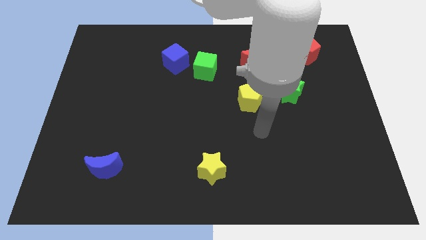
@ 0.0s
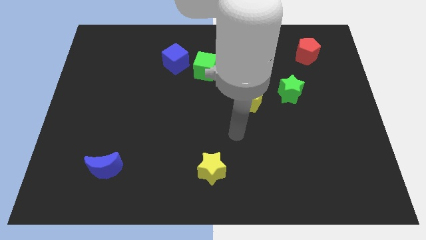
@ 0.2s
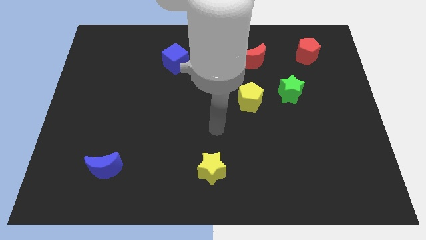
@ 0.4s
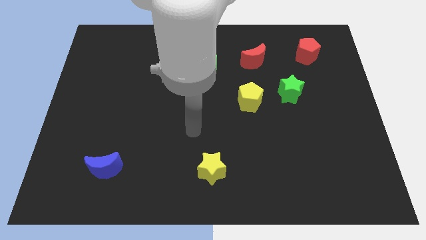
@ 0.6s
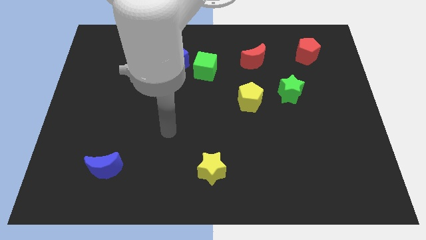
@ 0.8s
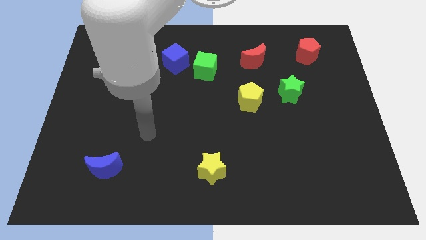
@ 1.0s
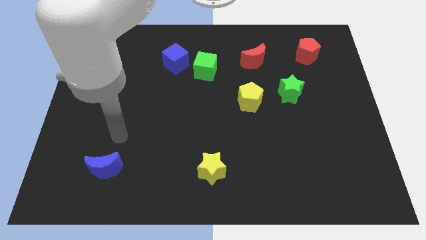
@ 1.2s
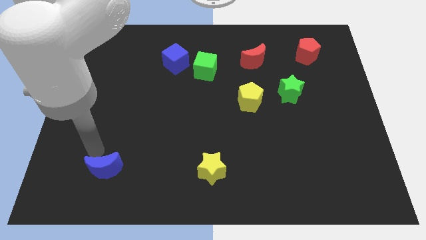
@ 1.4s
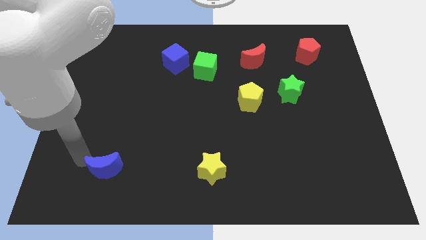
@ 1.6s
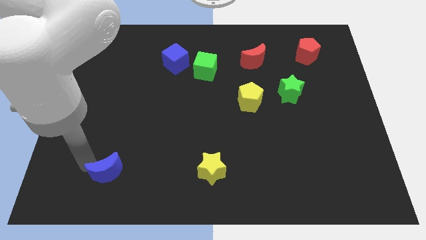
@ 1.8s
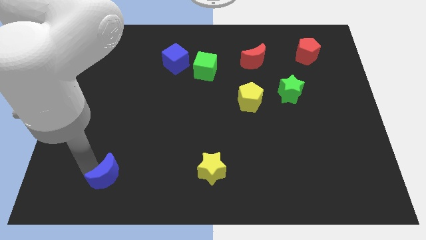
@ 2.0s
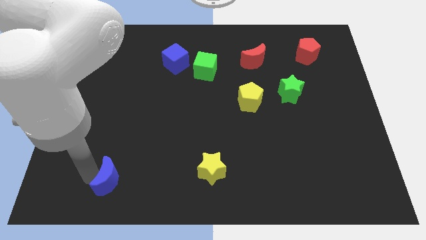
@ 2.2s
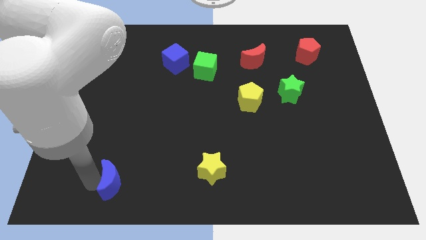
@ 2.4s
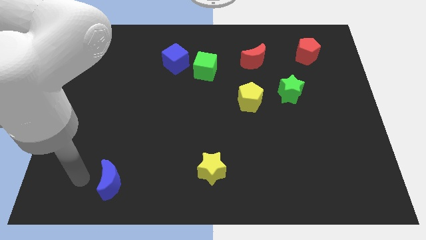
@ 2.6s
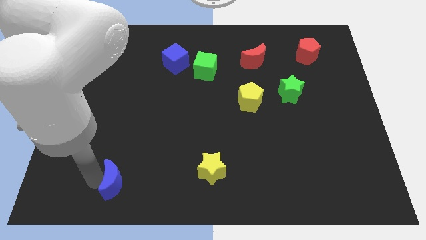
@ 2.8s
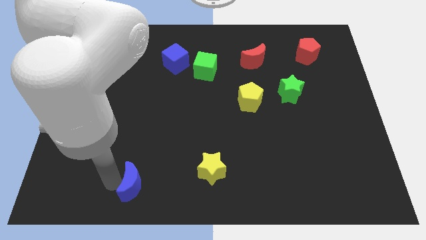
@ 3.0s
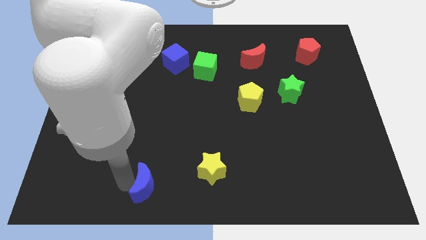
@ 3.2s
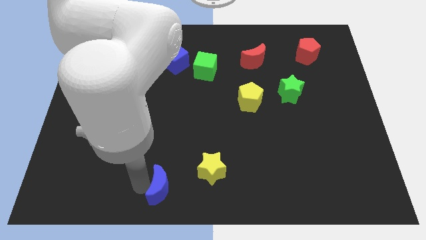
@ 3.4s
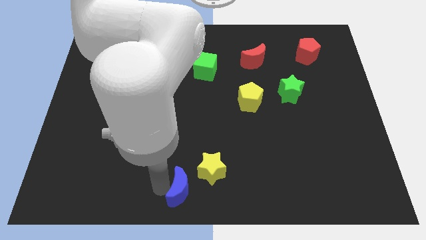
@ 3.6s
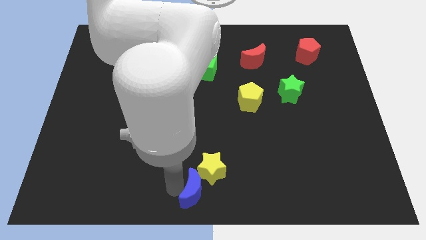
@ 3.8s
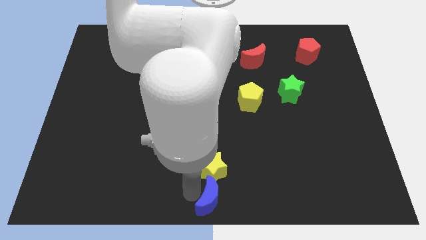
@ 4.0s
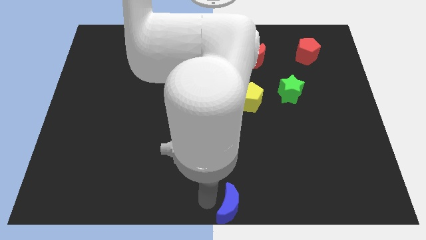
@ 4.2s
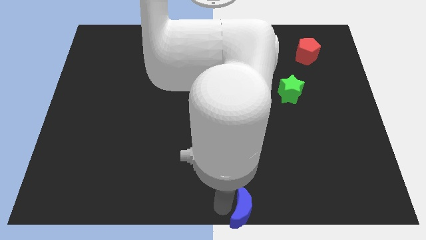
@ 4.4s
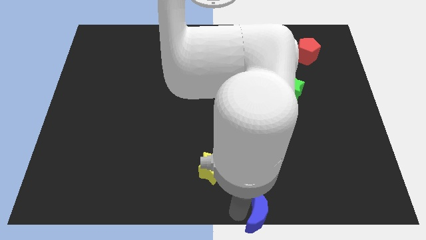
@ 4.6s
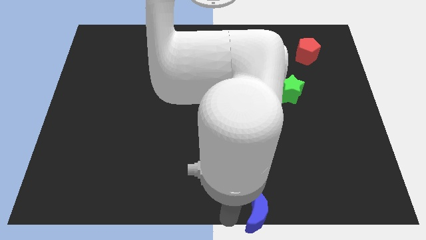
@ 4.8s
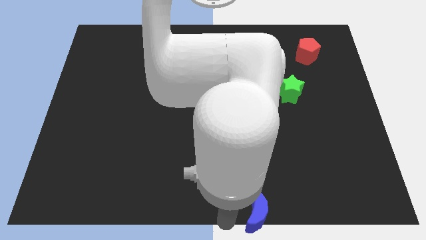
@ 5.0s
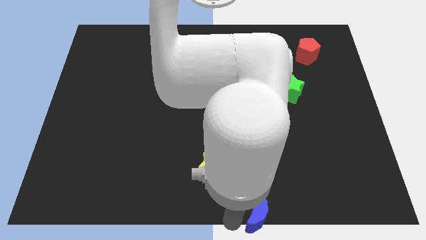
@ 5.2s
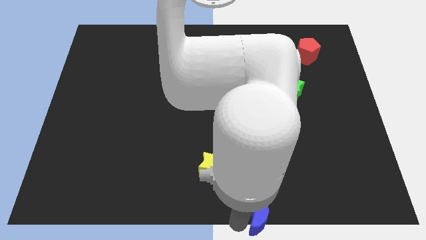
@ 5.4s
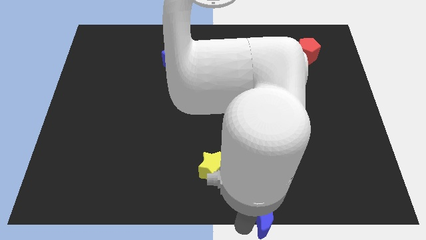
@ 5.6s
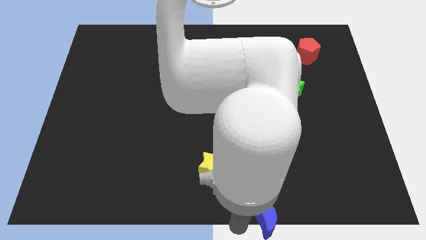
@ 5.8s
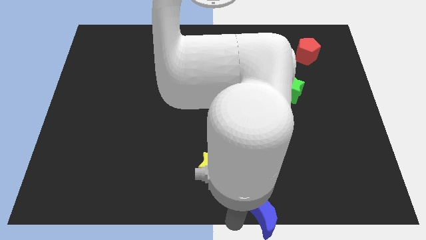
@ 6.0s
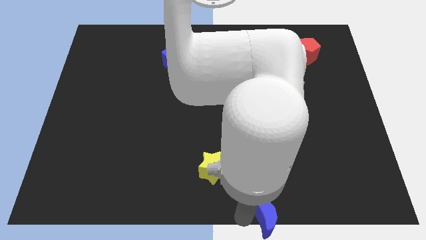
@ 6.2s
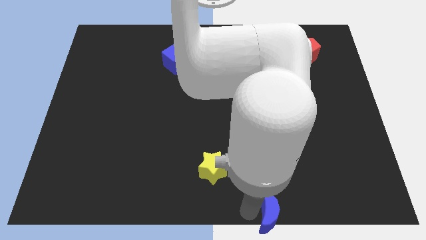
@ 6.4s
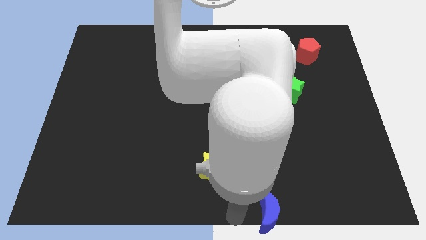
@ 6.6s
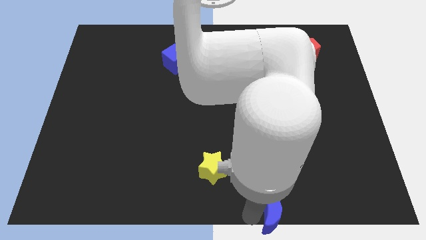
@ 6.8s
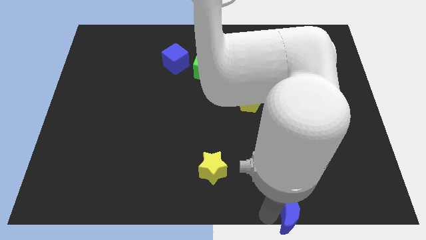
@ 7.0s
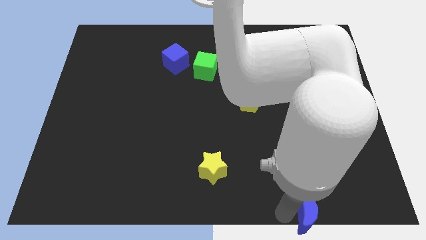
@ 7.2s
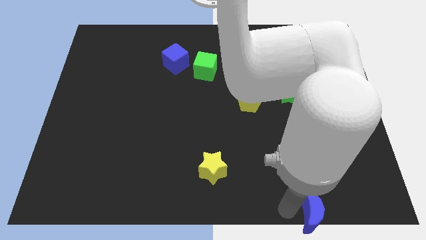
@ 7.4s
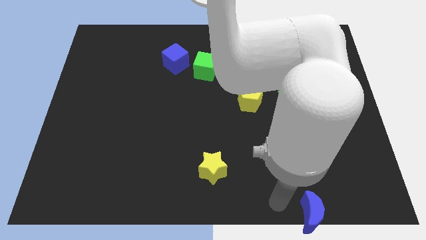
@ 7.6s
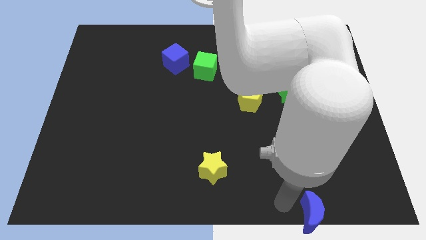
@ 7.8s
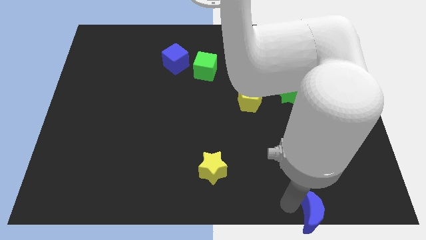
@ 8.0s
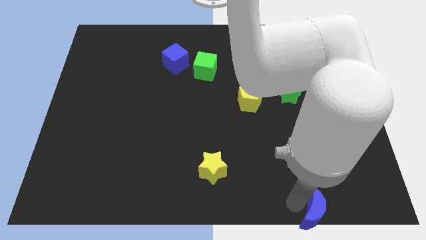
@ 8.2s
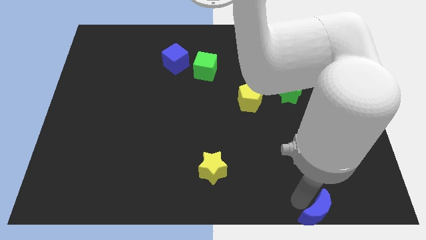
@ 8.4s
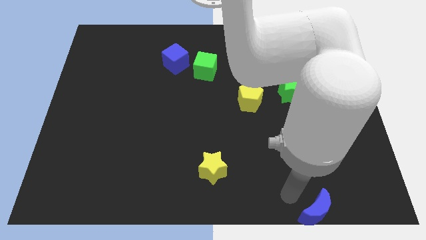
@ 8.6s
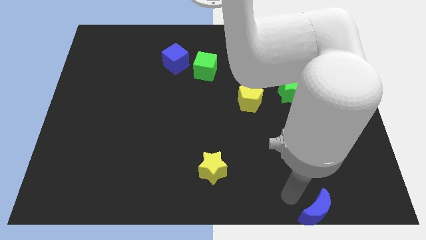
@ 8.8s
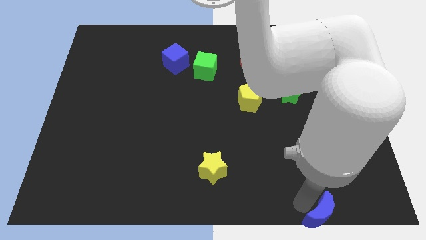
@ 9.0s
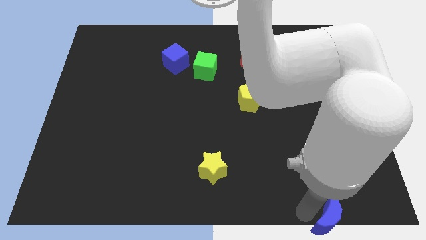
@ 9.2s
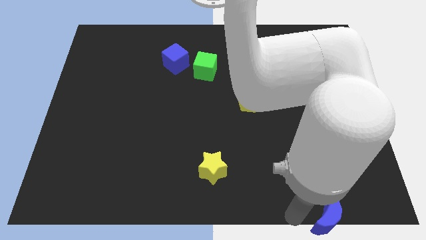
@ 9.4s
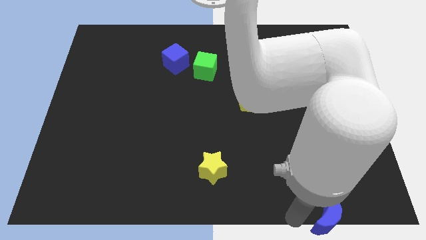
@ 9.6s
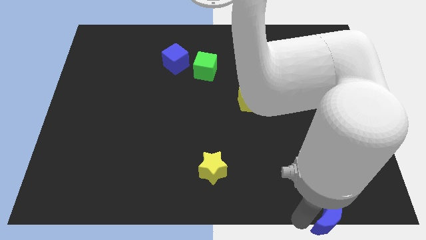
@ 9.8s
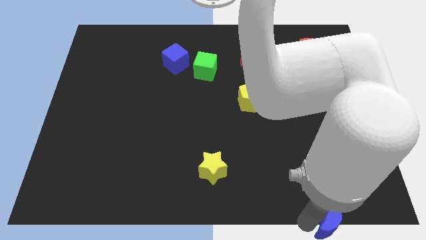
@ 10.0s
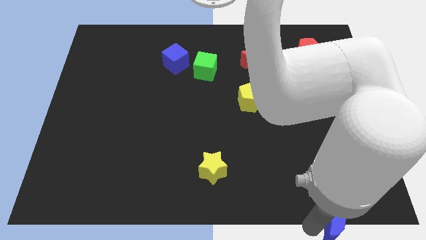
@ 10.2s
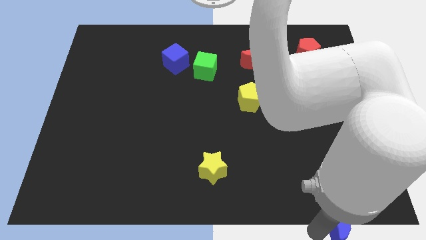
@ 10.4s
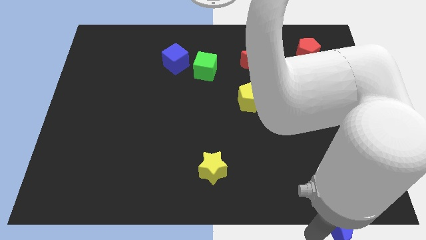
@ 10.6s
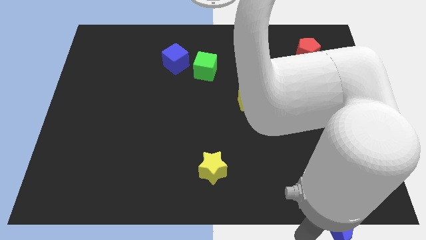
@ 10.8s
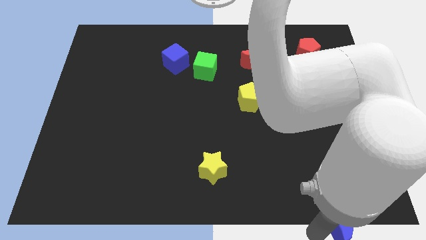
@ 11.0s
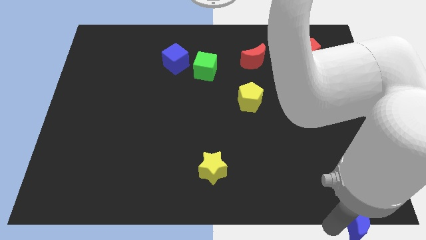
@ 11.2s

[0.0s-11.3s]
push the blue moon to the bottom right of the board
